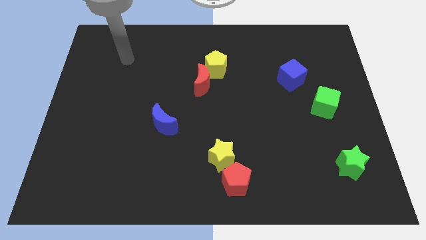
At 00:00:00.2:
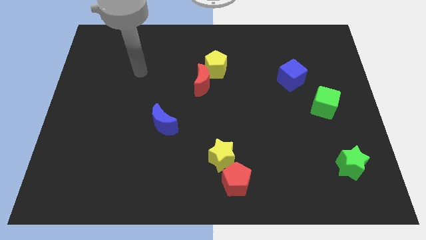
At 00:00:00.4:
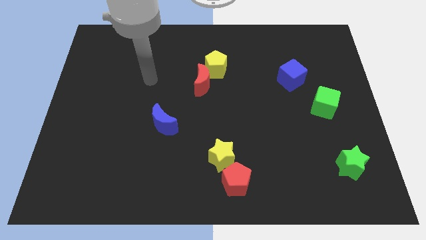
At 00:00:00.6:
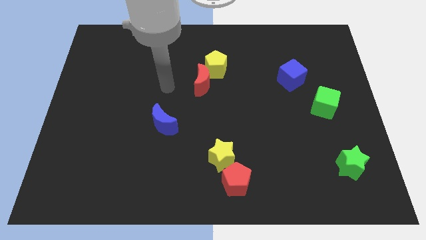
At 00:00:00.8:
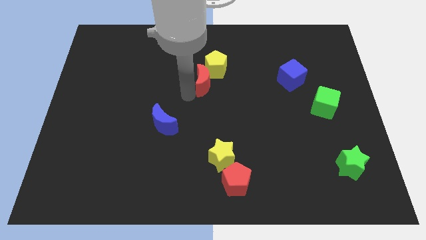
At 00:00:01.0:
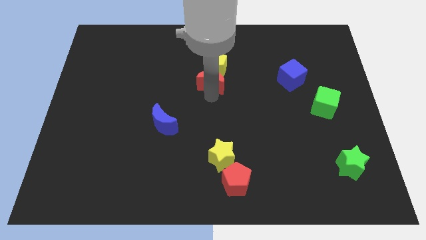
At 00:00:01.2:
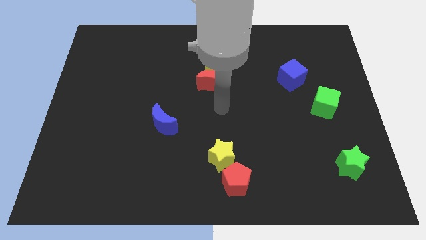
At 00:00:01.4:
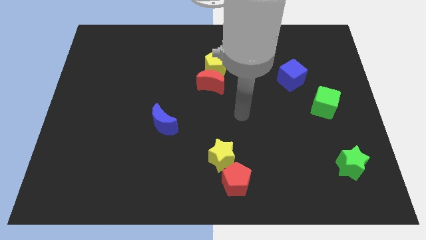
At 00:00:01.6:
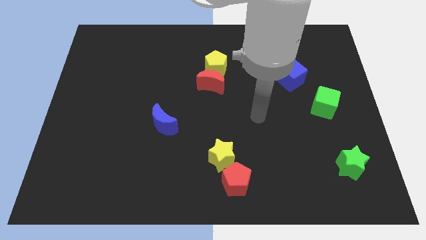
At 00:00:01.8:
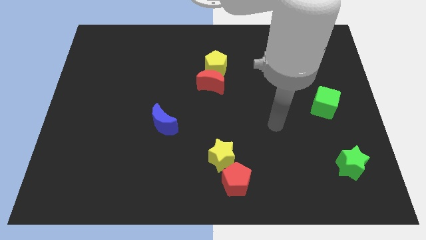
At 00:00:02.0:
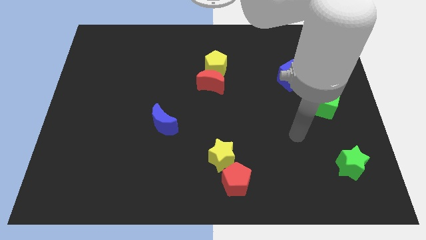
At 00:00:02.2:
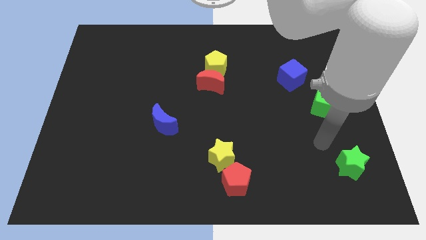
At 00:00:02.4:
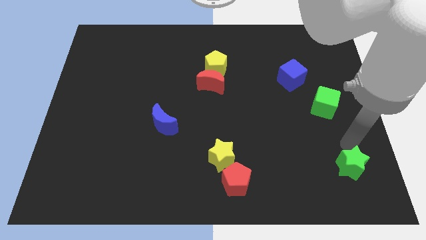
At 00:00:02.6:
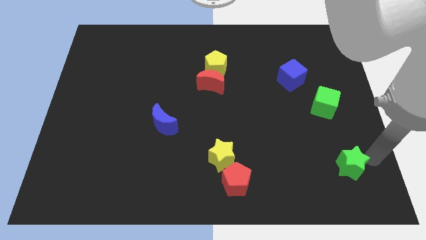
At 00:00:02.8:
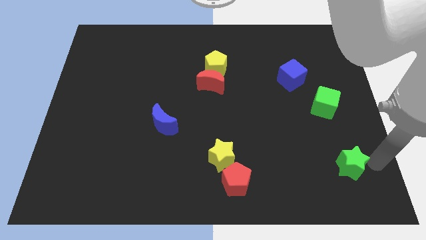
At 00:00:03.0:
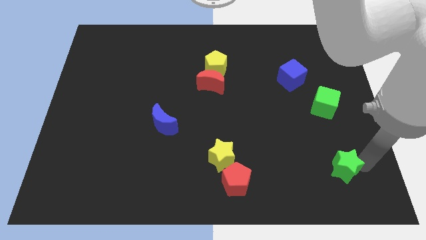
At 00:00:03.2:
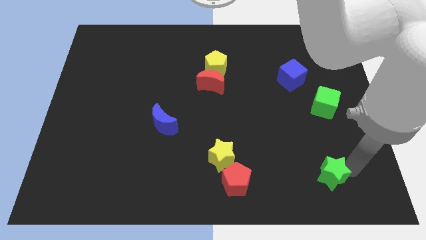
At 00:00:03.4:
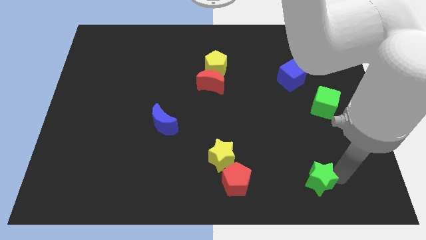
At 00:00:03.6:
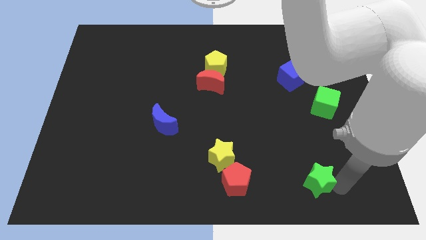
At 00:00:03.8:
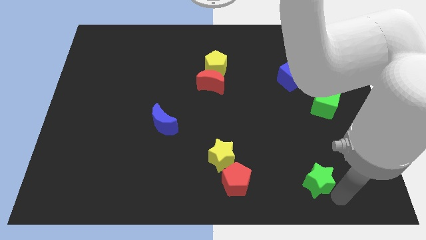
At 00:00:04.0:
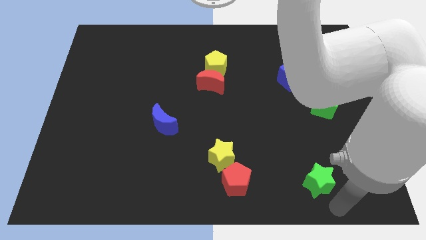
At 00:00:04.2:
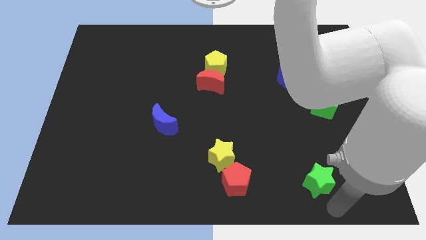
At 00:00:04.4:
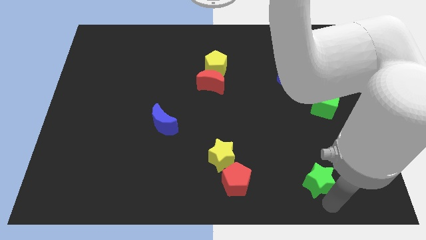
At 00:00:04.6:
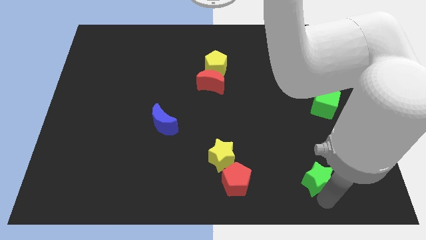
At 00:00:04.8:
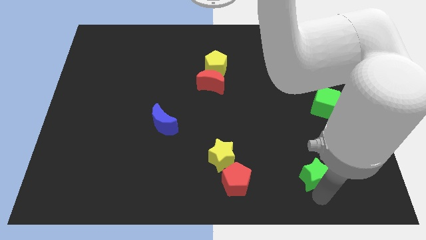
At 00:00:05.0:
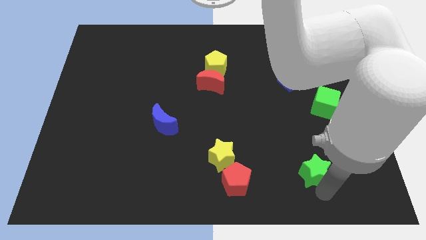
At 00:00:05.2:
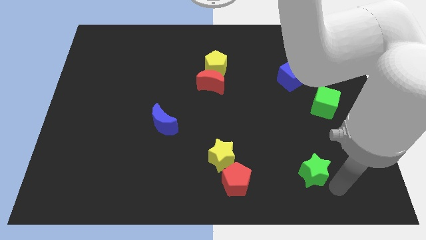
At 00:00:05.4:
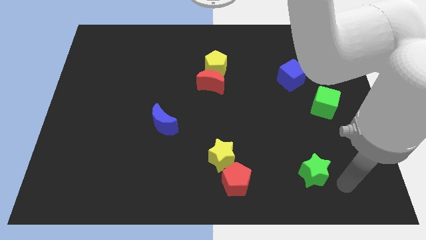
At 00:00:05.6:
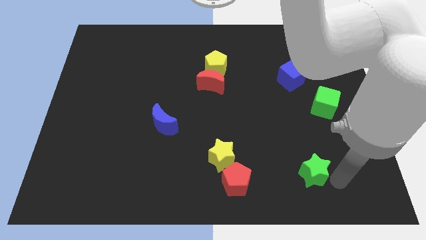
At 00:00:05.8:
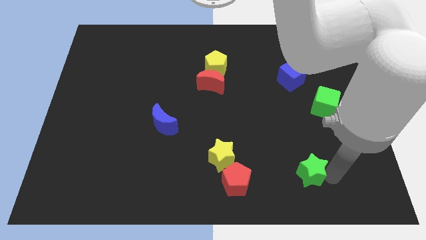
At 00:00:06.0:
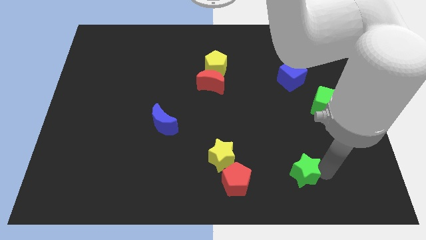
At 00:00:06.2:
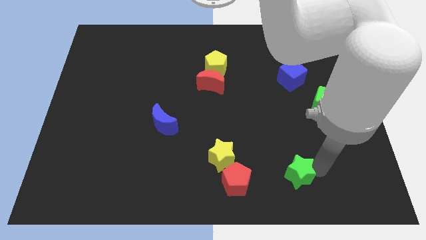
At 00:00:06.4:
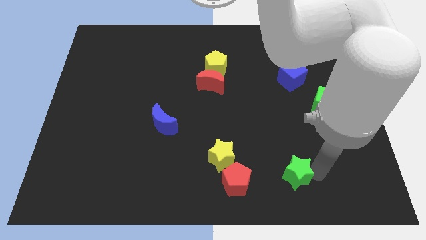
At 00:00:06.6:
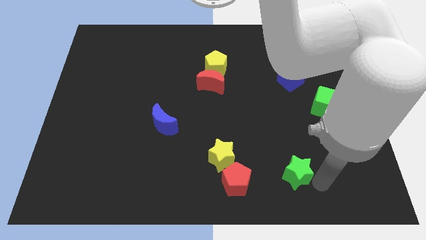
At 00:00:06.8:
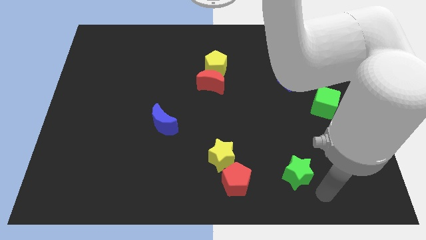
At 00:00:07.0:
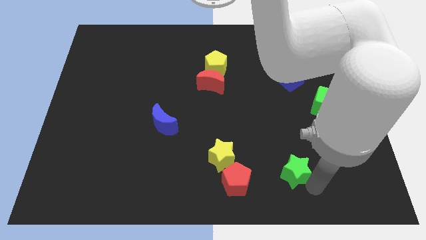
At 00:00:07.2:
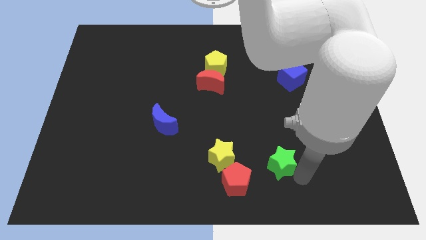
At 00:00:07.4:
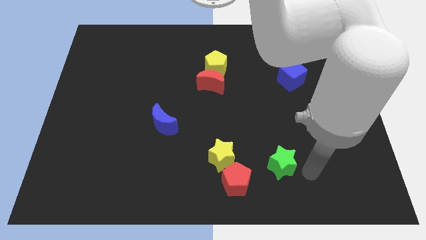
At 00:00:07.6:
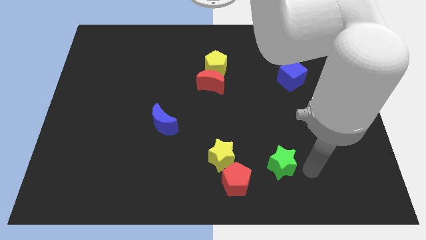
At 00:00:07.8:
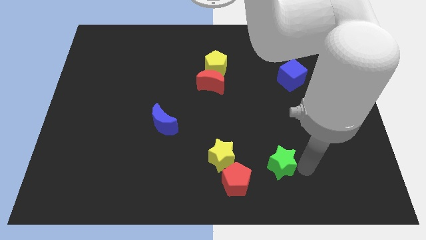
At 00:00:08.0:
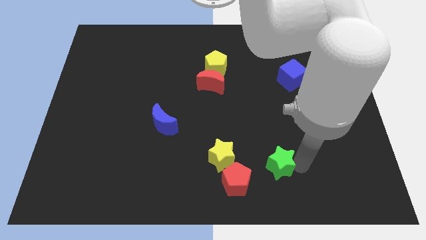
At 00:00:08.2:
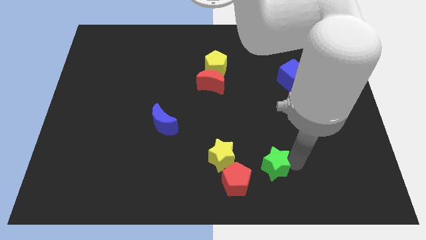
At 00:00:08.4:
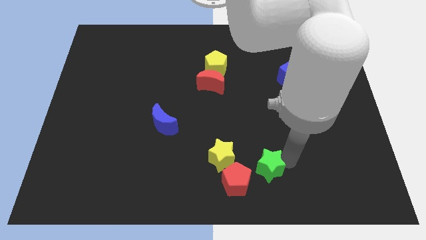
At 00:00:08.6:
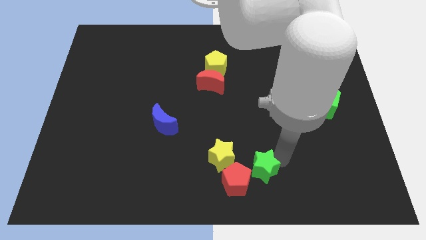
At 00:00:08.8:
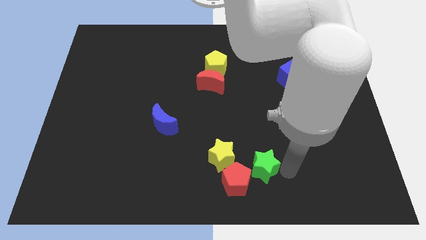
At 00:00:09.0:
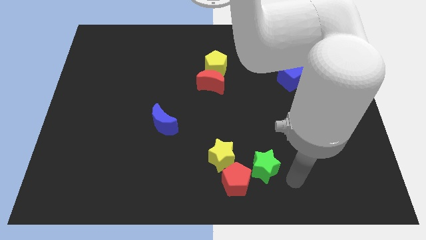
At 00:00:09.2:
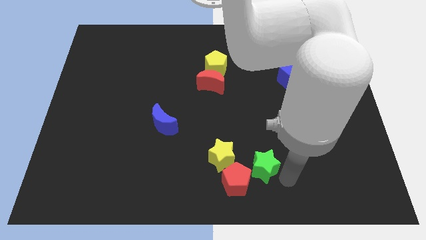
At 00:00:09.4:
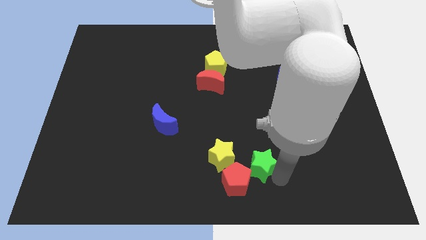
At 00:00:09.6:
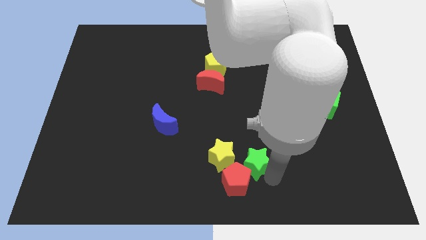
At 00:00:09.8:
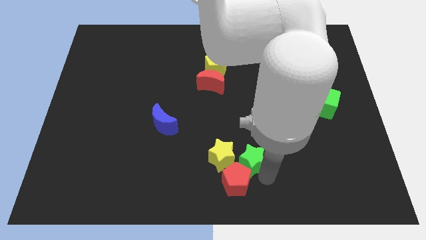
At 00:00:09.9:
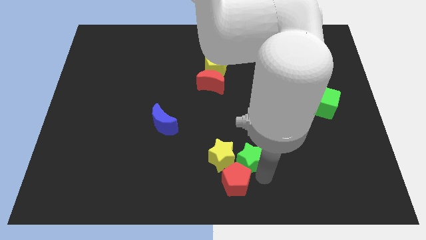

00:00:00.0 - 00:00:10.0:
push the green star towards the yellow star

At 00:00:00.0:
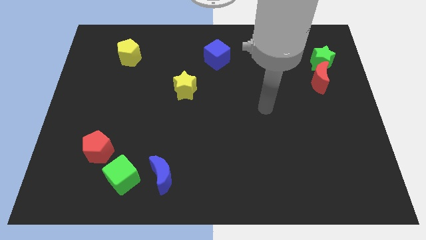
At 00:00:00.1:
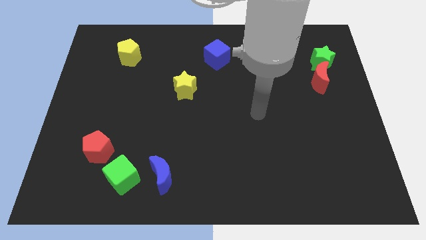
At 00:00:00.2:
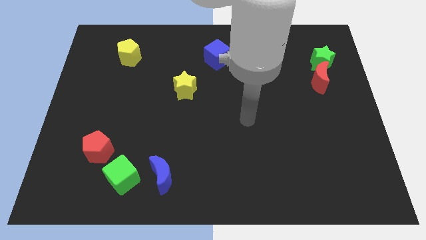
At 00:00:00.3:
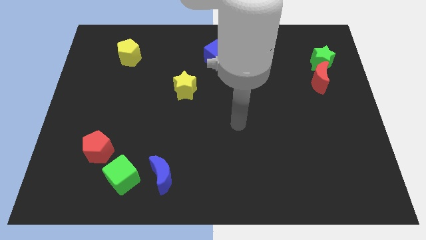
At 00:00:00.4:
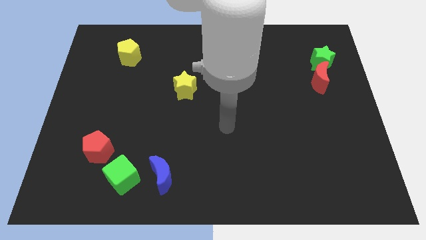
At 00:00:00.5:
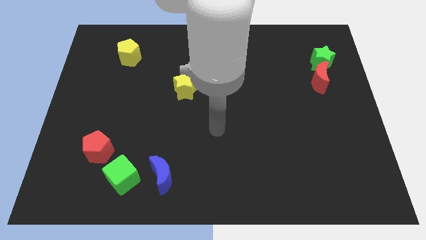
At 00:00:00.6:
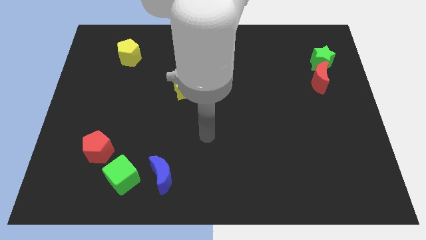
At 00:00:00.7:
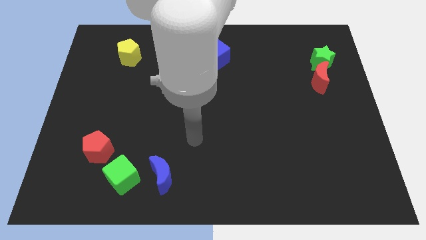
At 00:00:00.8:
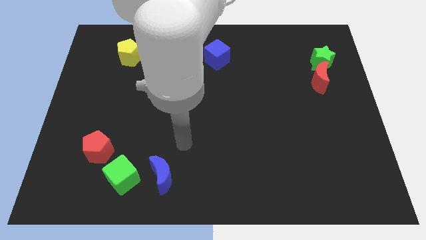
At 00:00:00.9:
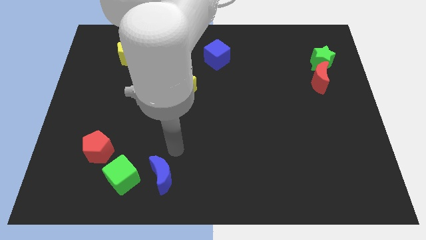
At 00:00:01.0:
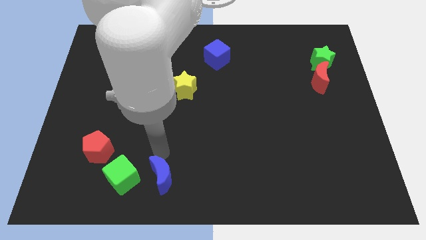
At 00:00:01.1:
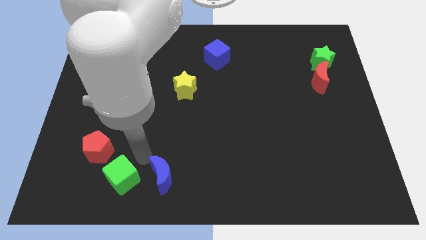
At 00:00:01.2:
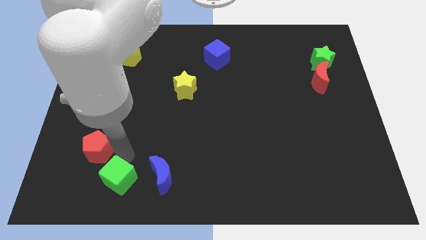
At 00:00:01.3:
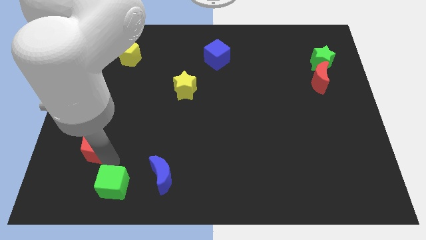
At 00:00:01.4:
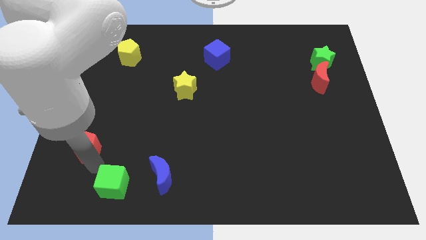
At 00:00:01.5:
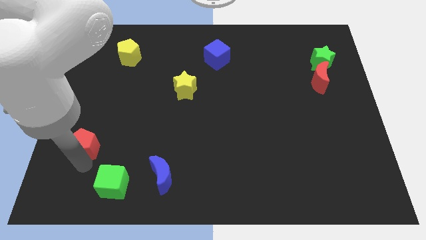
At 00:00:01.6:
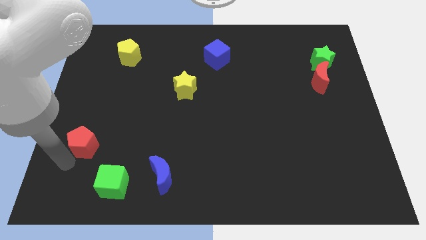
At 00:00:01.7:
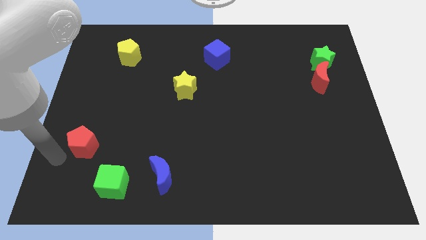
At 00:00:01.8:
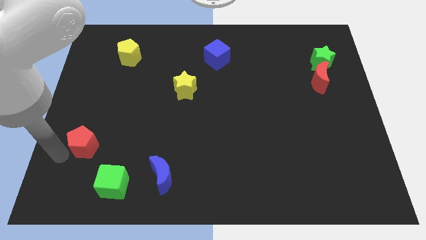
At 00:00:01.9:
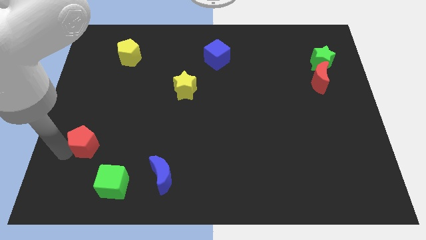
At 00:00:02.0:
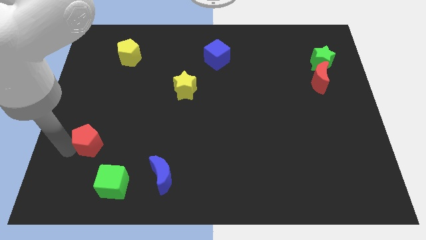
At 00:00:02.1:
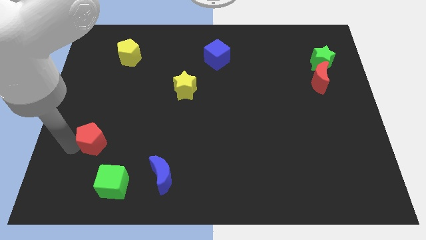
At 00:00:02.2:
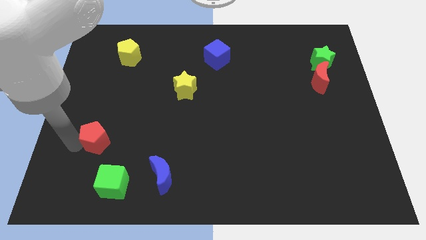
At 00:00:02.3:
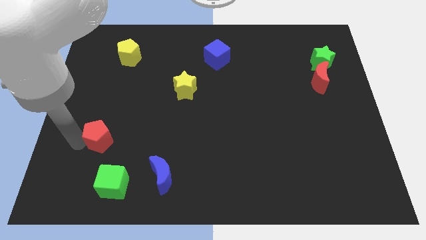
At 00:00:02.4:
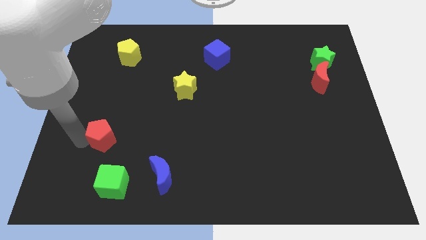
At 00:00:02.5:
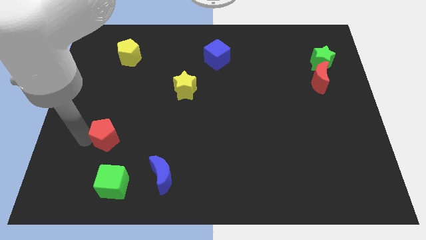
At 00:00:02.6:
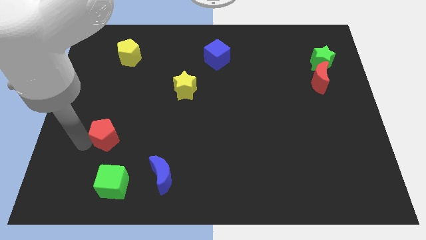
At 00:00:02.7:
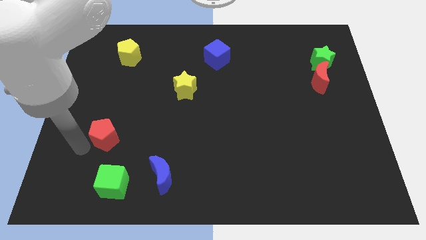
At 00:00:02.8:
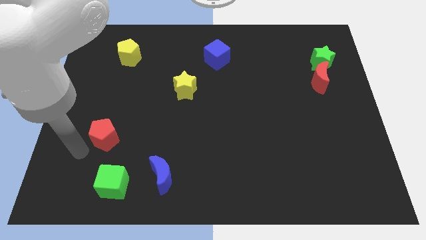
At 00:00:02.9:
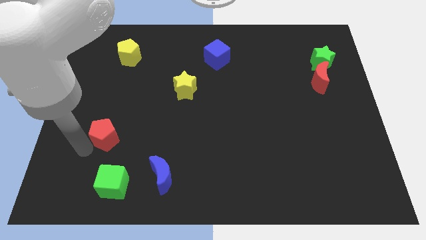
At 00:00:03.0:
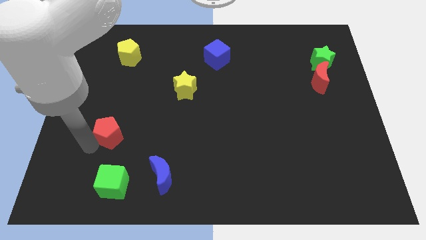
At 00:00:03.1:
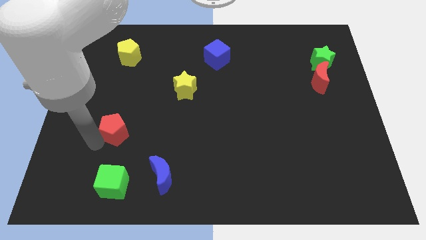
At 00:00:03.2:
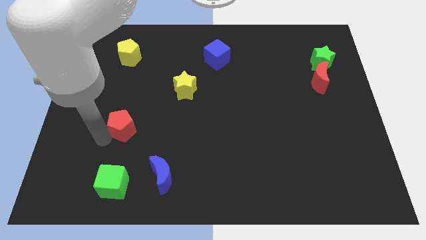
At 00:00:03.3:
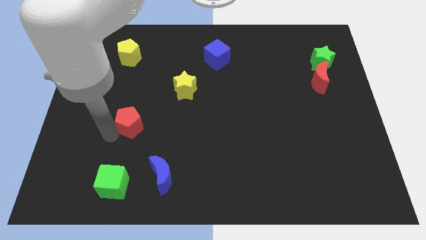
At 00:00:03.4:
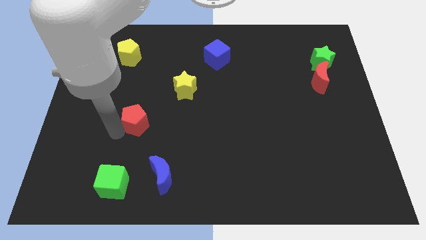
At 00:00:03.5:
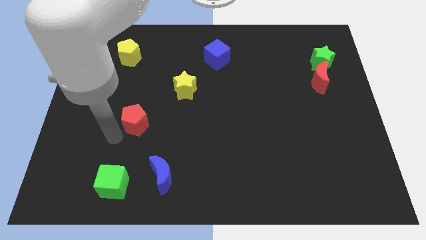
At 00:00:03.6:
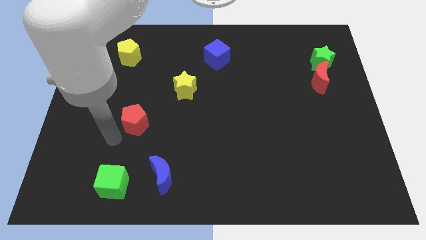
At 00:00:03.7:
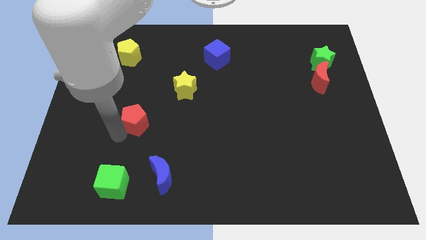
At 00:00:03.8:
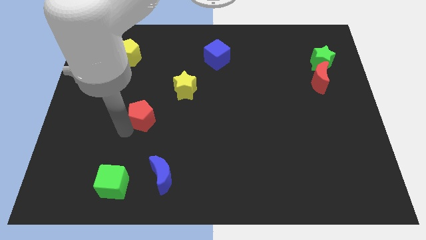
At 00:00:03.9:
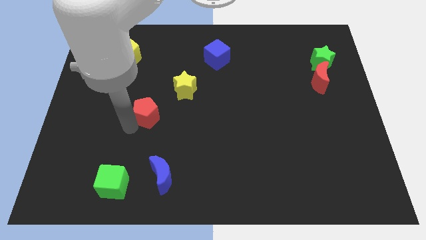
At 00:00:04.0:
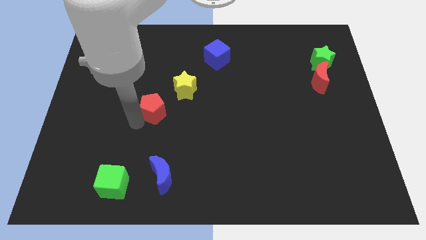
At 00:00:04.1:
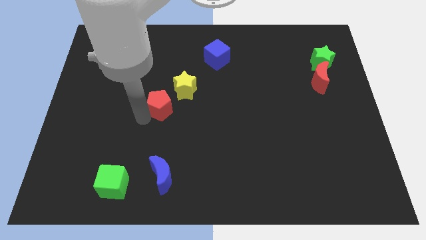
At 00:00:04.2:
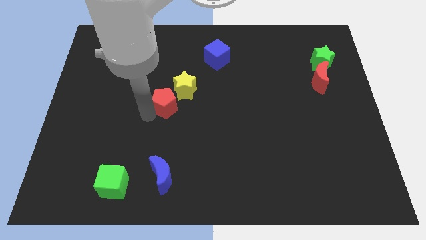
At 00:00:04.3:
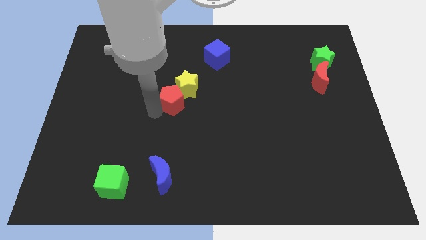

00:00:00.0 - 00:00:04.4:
push the red pentagon to the yellow star
